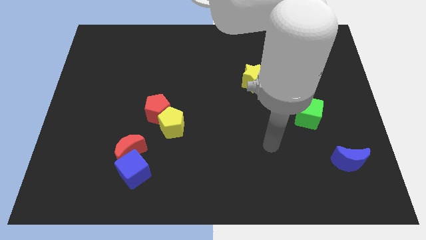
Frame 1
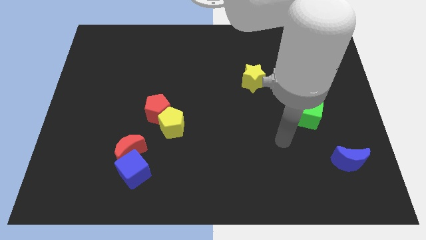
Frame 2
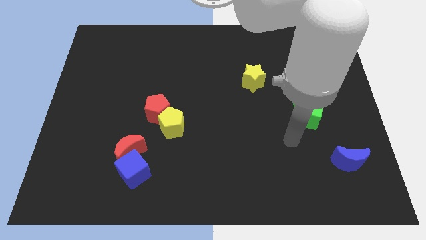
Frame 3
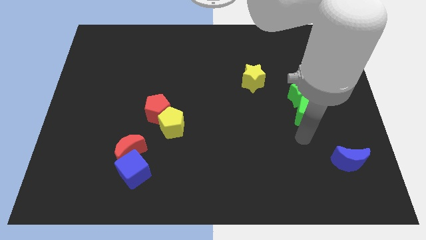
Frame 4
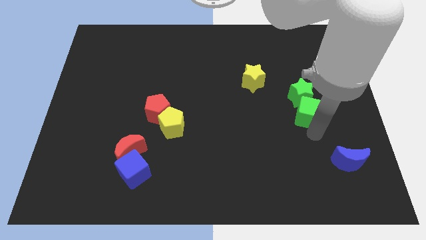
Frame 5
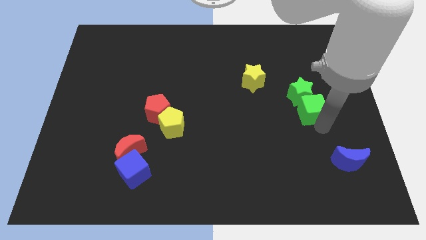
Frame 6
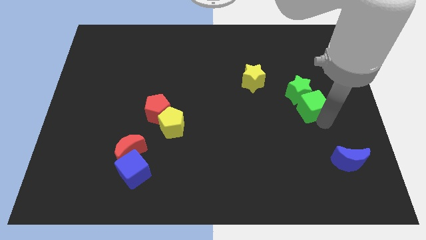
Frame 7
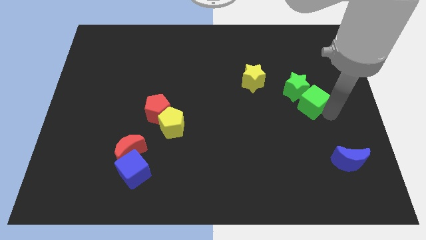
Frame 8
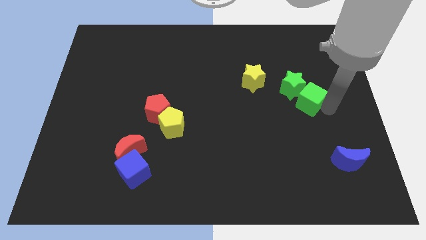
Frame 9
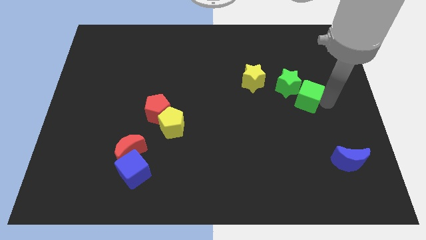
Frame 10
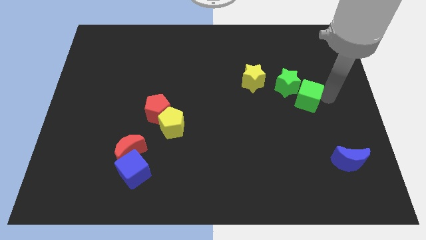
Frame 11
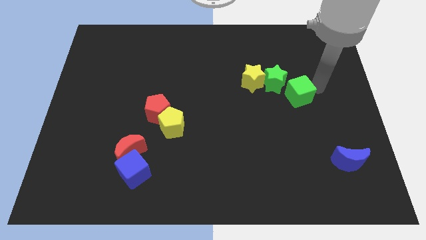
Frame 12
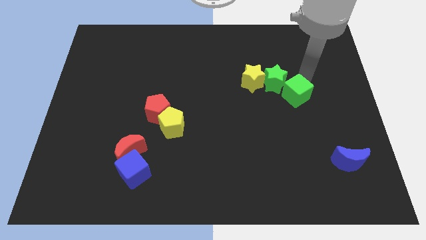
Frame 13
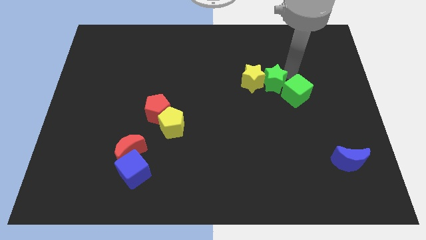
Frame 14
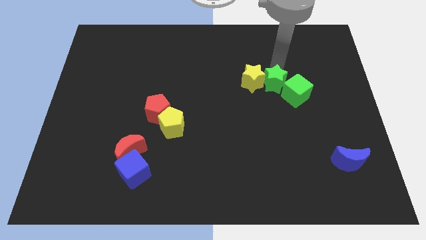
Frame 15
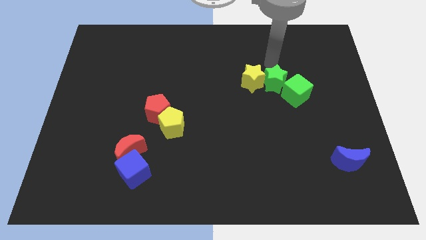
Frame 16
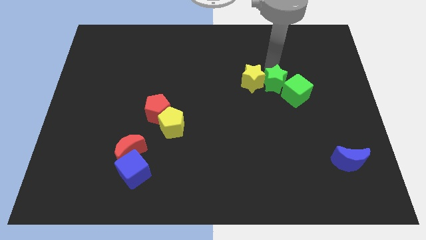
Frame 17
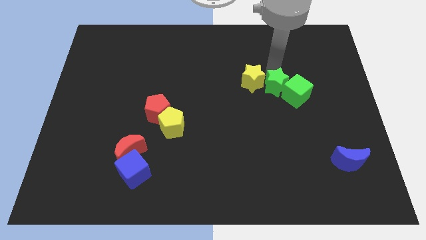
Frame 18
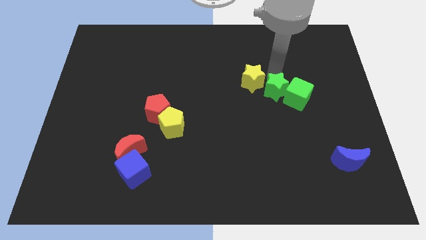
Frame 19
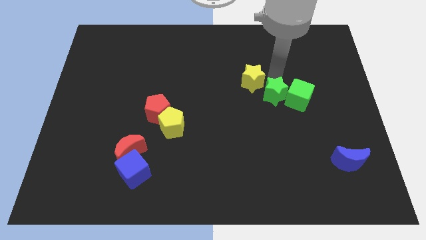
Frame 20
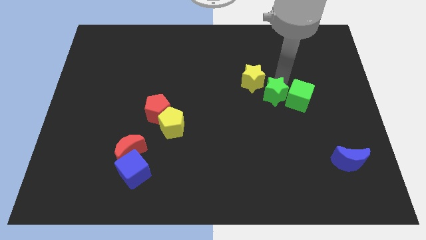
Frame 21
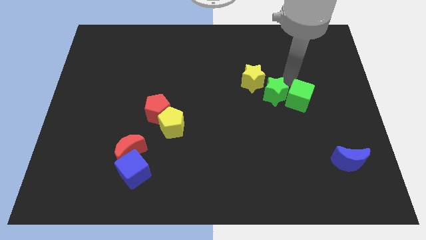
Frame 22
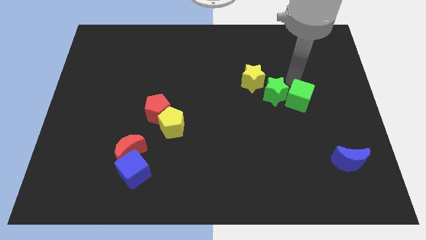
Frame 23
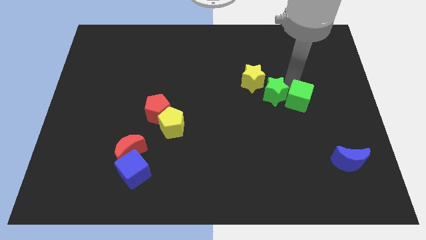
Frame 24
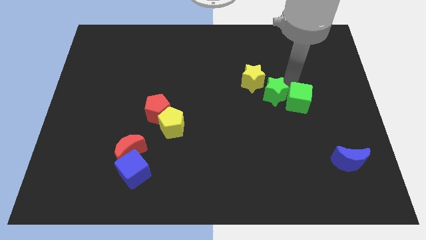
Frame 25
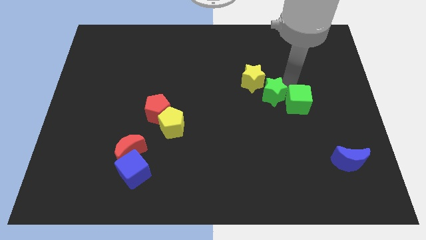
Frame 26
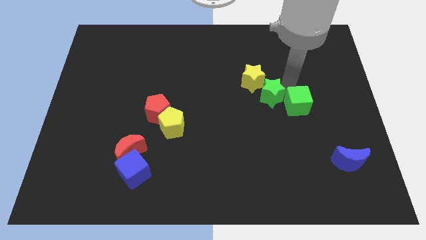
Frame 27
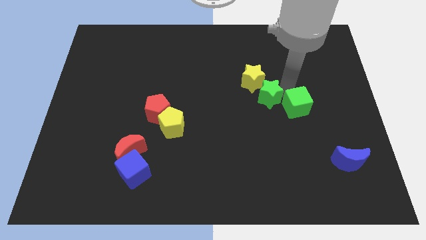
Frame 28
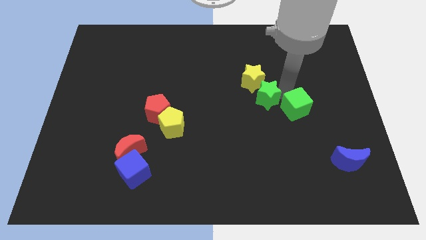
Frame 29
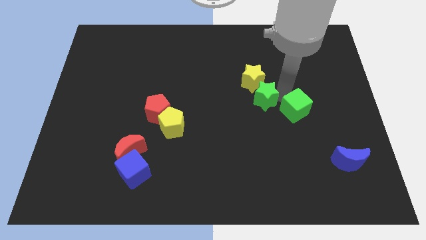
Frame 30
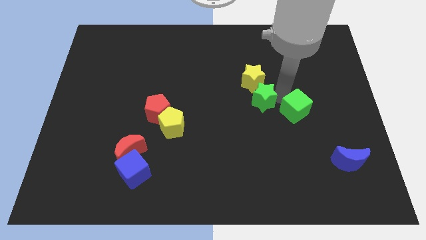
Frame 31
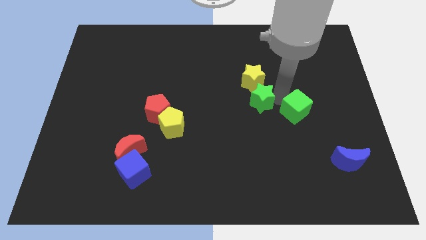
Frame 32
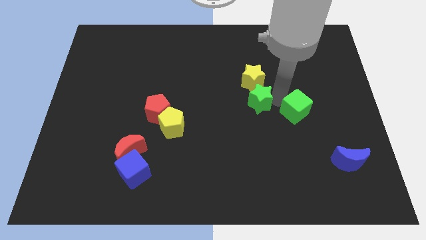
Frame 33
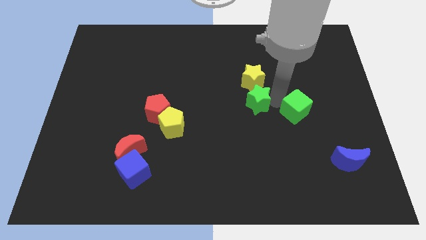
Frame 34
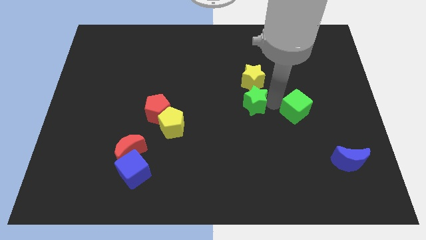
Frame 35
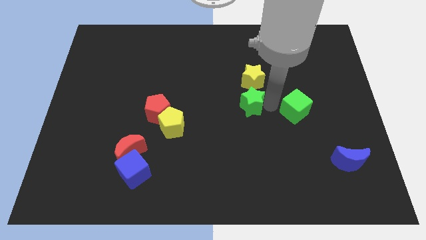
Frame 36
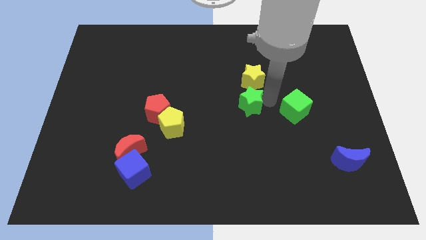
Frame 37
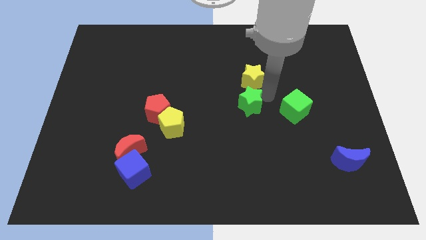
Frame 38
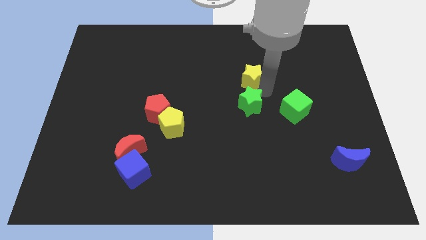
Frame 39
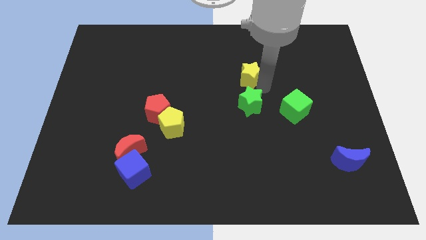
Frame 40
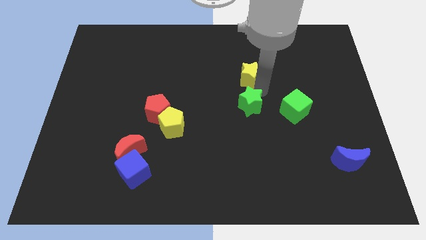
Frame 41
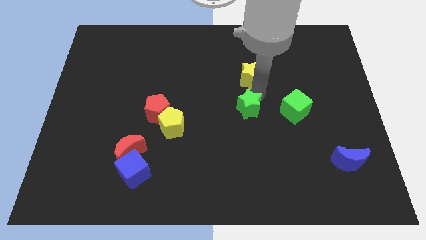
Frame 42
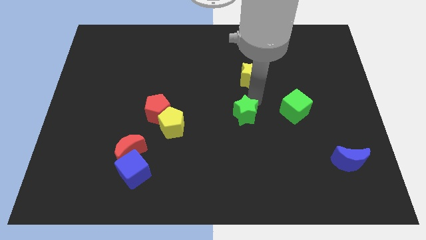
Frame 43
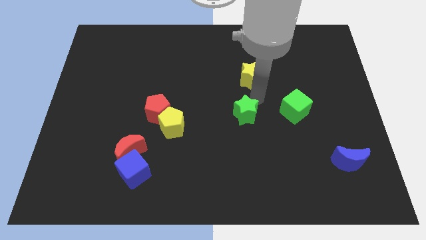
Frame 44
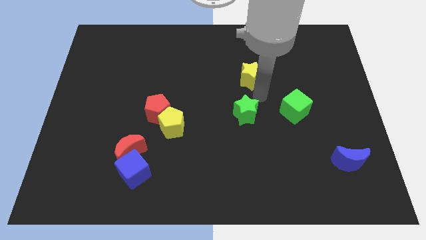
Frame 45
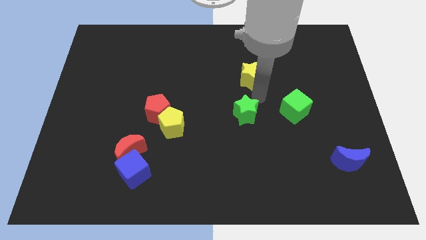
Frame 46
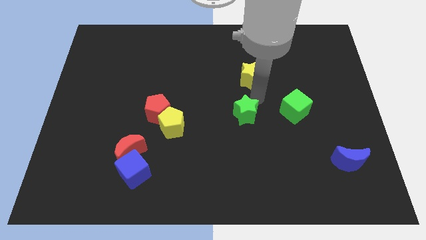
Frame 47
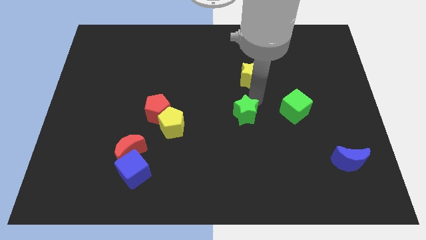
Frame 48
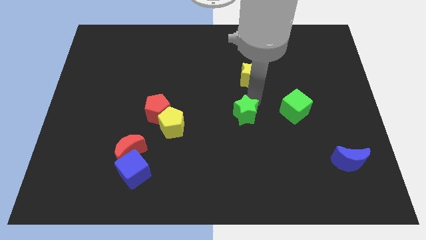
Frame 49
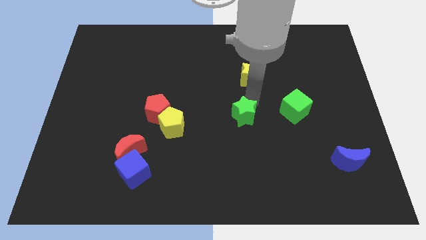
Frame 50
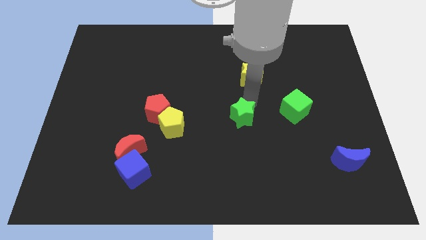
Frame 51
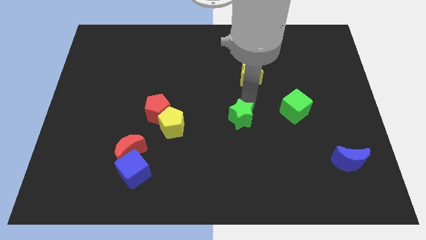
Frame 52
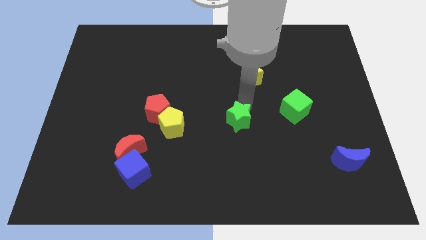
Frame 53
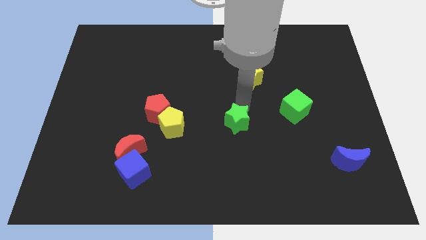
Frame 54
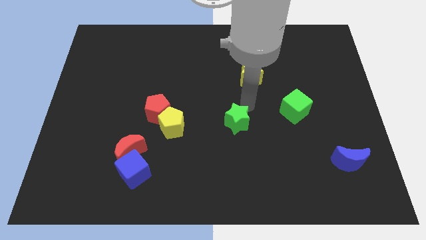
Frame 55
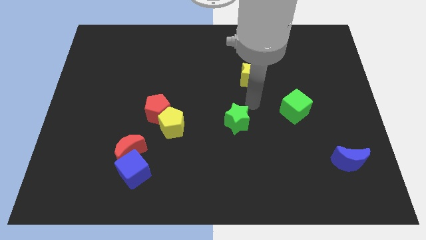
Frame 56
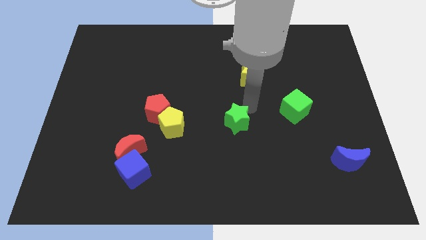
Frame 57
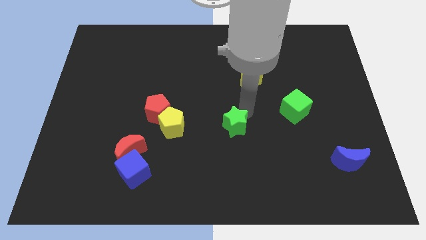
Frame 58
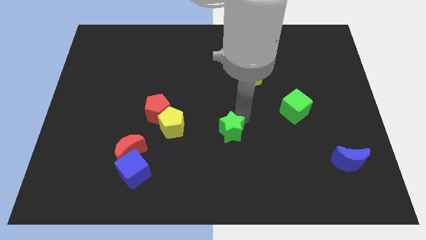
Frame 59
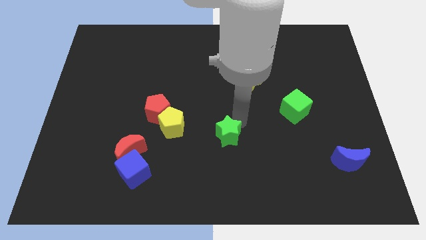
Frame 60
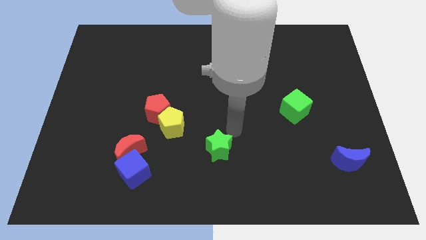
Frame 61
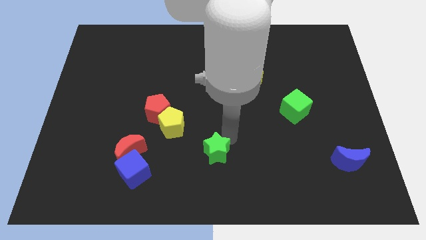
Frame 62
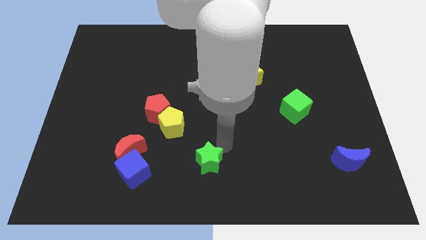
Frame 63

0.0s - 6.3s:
slide the green star just right of the blue cube
